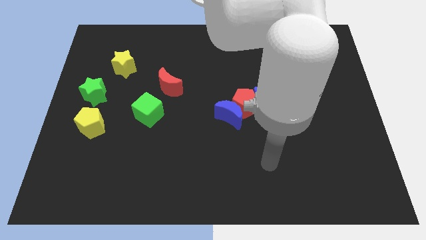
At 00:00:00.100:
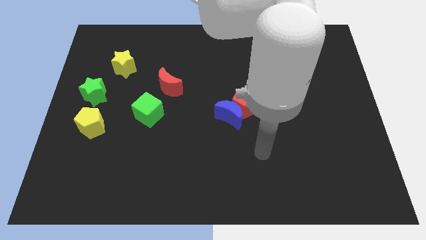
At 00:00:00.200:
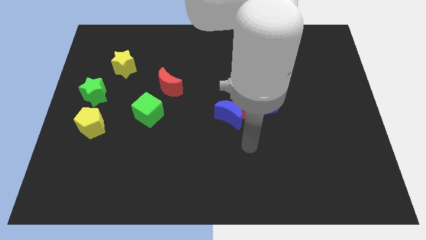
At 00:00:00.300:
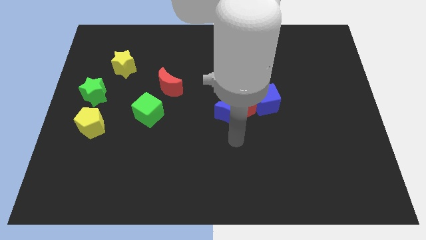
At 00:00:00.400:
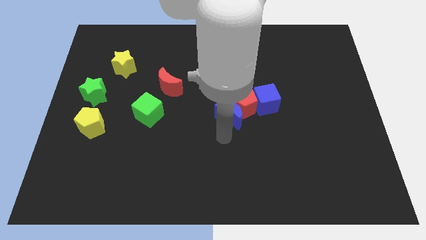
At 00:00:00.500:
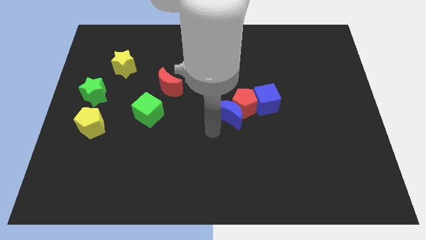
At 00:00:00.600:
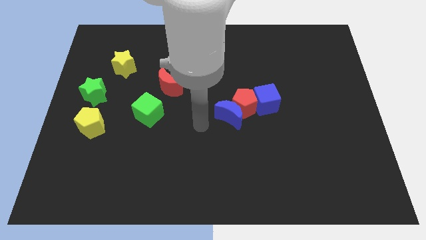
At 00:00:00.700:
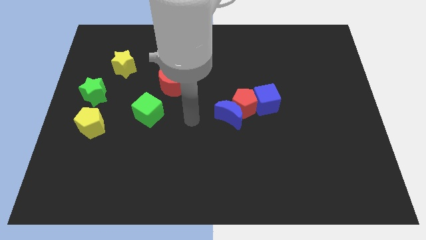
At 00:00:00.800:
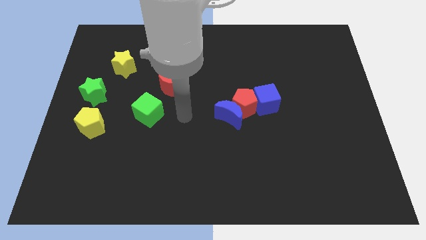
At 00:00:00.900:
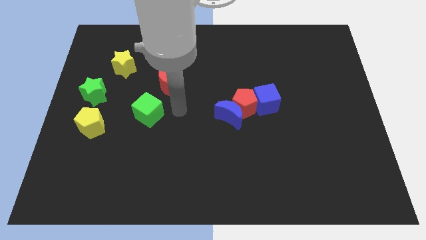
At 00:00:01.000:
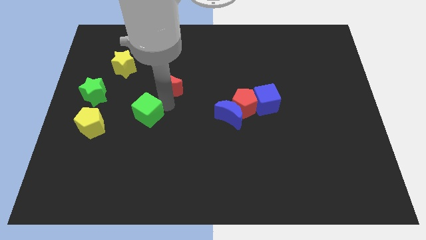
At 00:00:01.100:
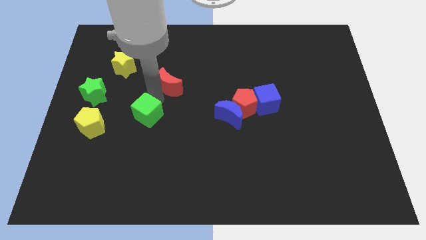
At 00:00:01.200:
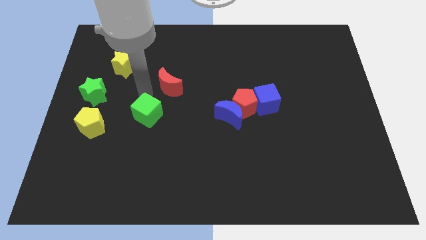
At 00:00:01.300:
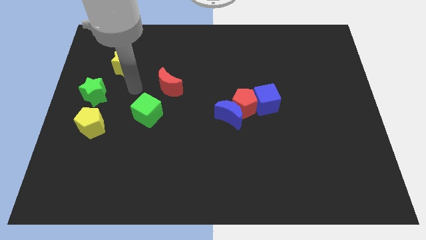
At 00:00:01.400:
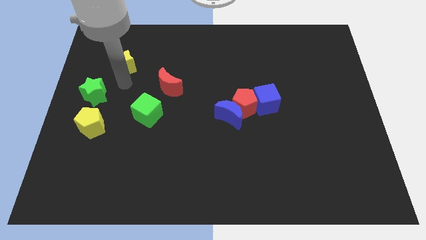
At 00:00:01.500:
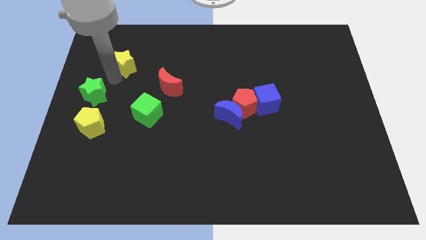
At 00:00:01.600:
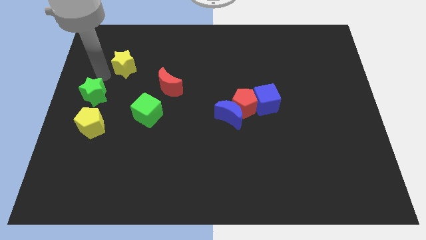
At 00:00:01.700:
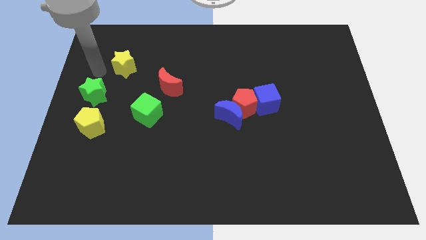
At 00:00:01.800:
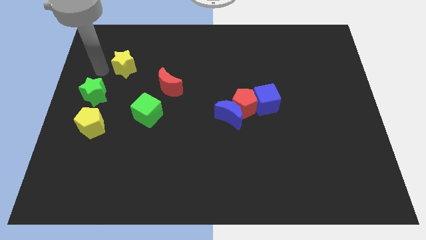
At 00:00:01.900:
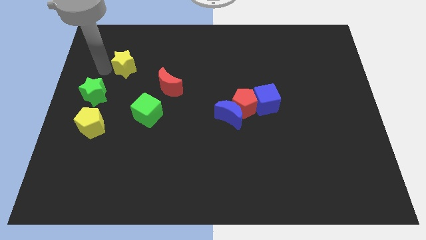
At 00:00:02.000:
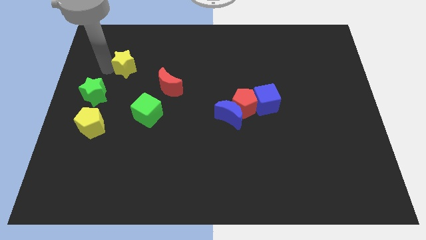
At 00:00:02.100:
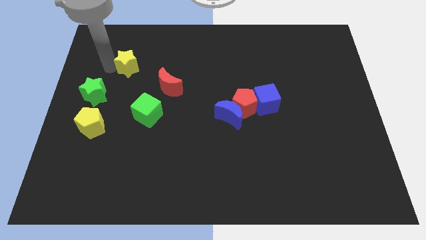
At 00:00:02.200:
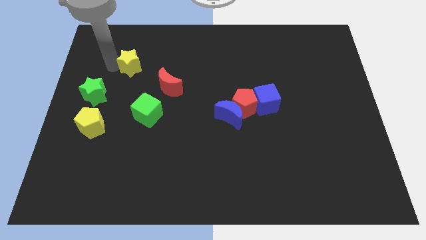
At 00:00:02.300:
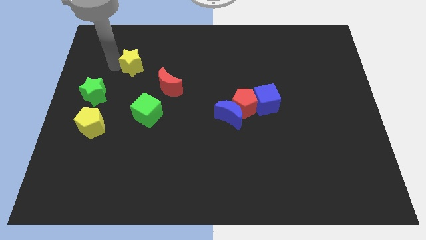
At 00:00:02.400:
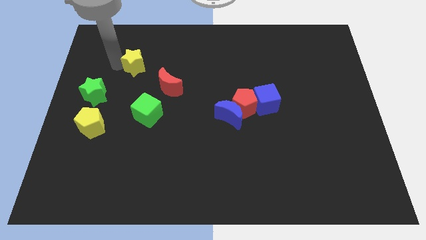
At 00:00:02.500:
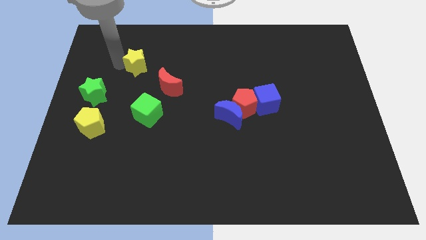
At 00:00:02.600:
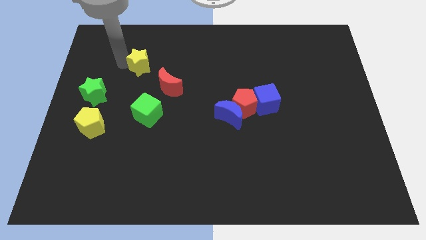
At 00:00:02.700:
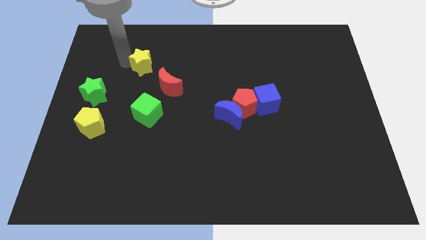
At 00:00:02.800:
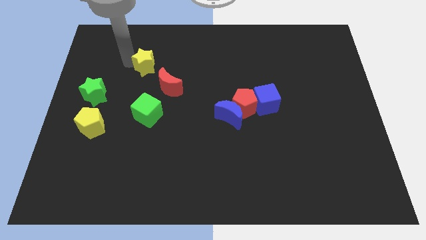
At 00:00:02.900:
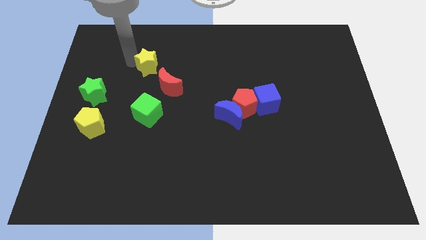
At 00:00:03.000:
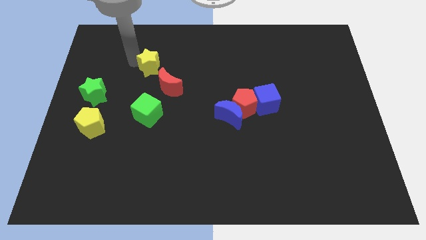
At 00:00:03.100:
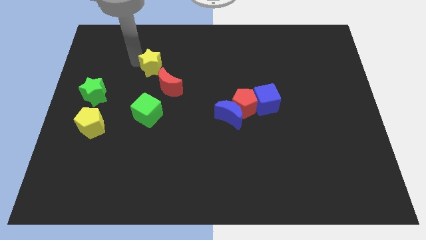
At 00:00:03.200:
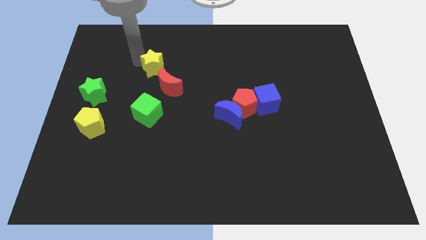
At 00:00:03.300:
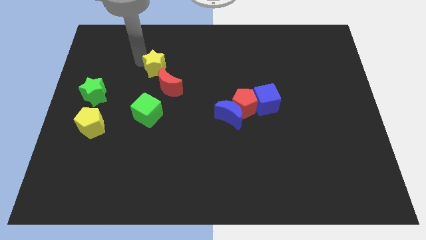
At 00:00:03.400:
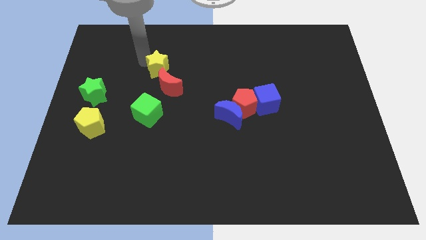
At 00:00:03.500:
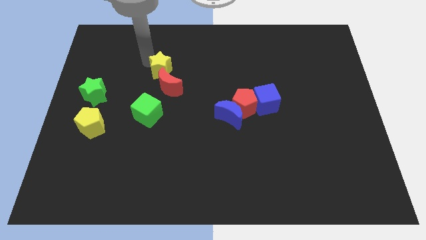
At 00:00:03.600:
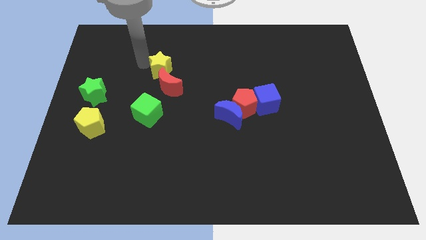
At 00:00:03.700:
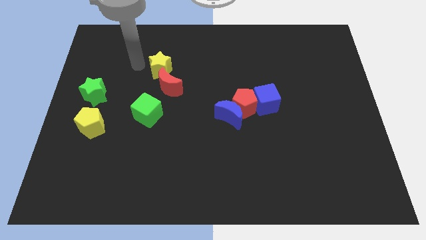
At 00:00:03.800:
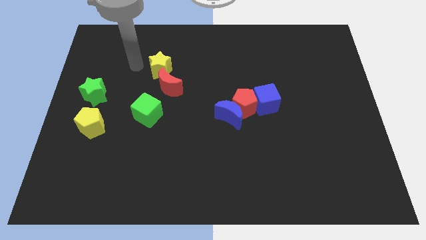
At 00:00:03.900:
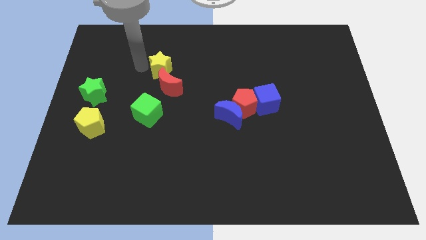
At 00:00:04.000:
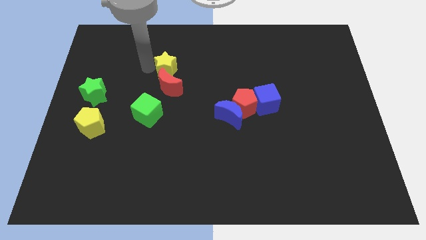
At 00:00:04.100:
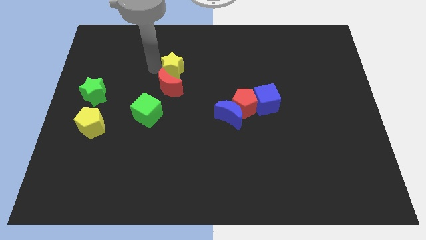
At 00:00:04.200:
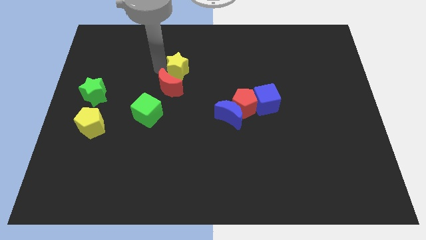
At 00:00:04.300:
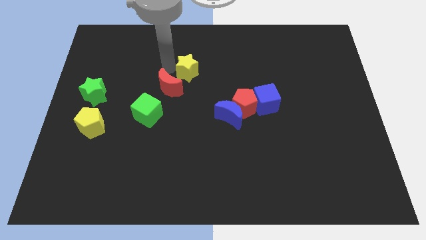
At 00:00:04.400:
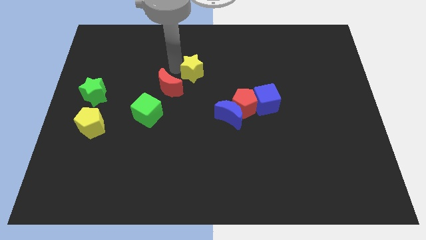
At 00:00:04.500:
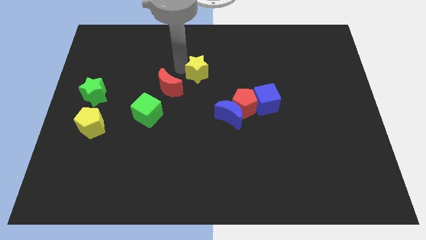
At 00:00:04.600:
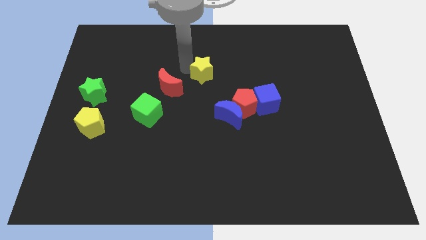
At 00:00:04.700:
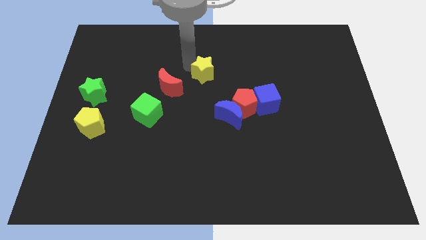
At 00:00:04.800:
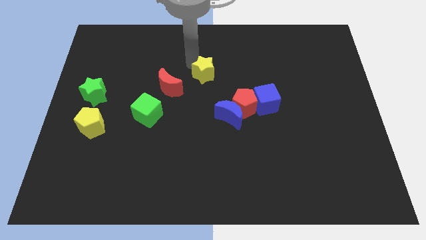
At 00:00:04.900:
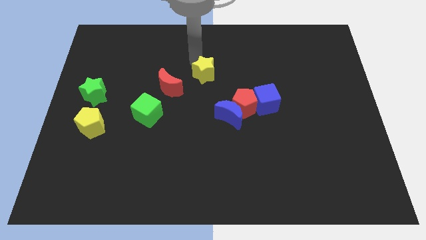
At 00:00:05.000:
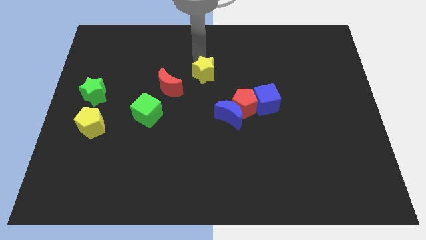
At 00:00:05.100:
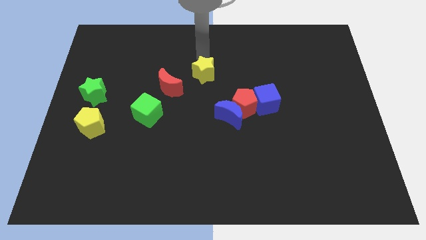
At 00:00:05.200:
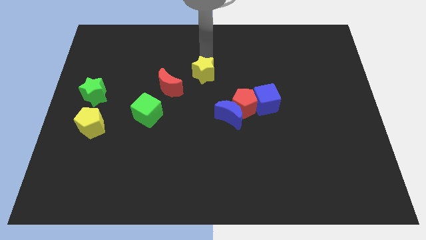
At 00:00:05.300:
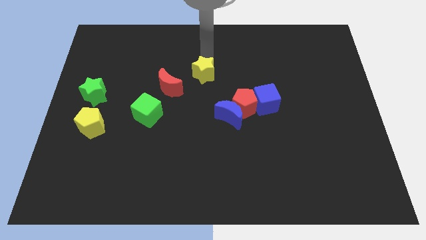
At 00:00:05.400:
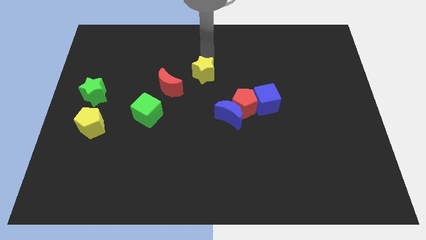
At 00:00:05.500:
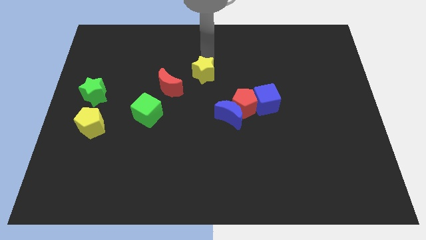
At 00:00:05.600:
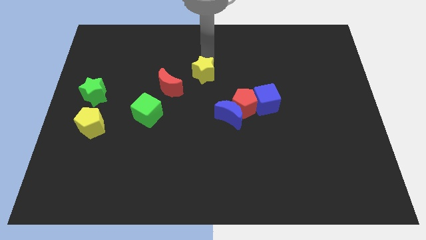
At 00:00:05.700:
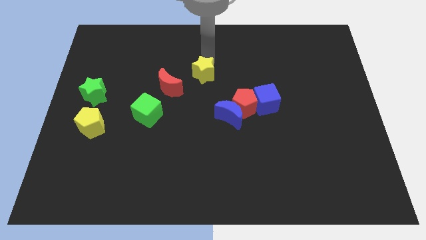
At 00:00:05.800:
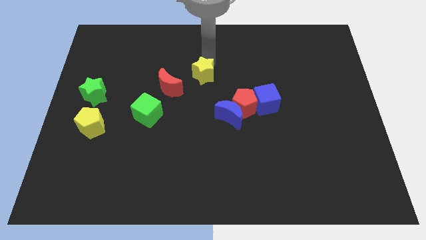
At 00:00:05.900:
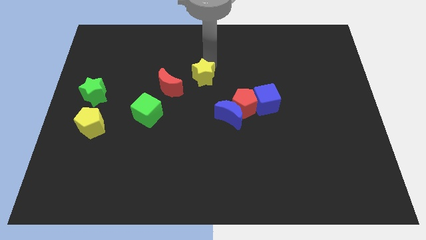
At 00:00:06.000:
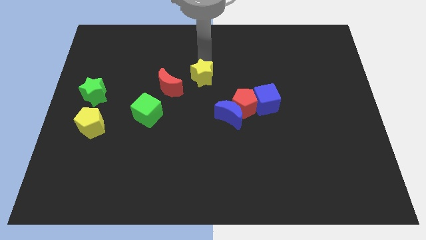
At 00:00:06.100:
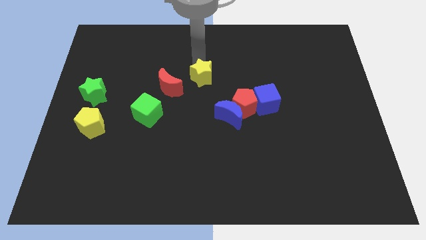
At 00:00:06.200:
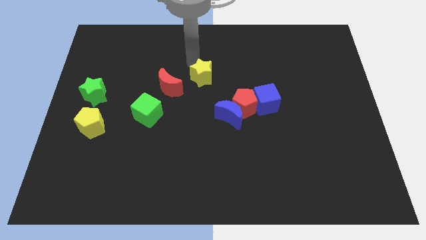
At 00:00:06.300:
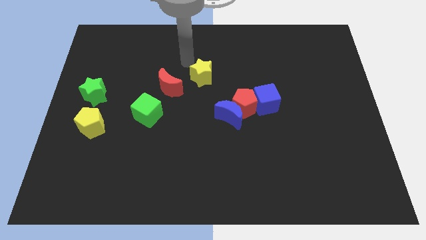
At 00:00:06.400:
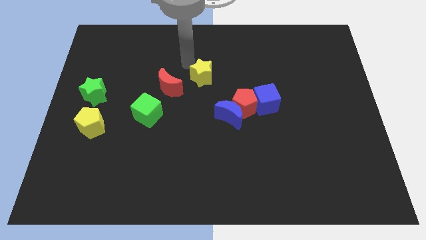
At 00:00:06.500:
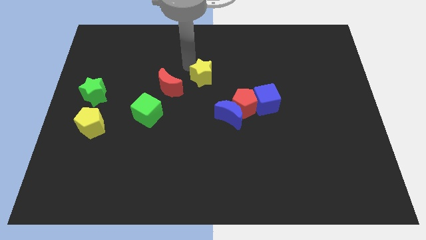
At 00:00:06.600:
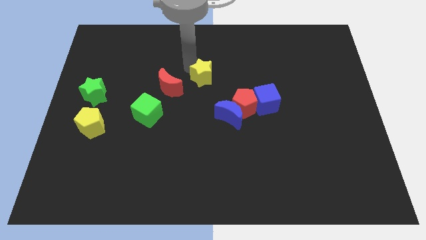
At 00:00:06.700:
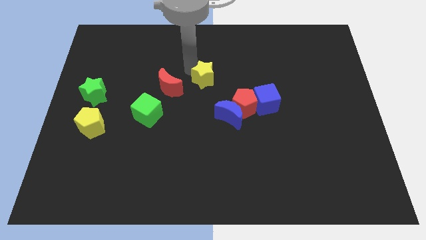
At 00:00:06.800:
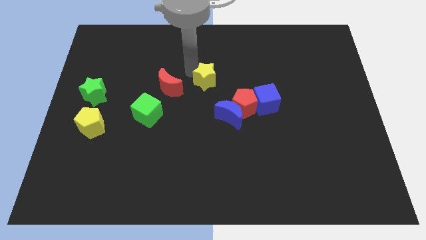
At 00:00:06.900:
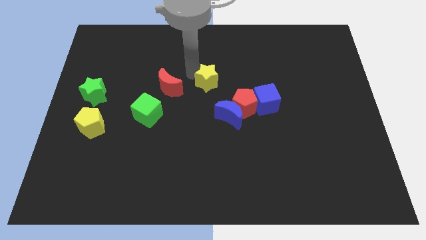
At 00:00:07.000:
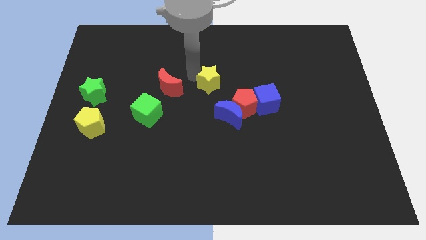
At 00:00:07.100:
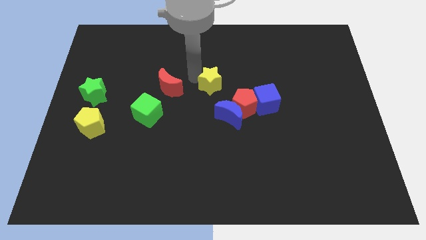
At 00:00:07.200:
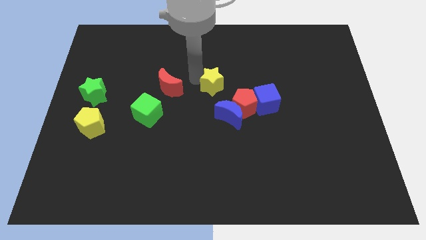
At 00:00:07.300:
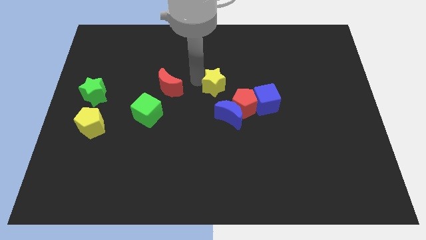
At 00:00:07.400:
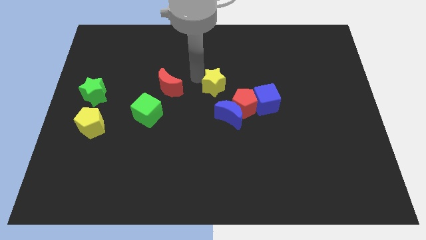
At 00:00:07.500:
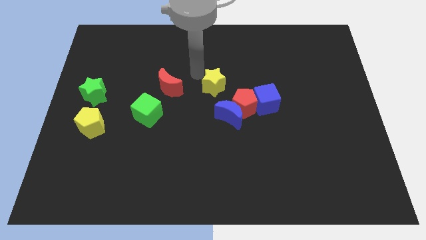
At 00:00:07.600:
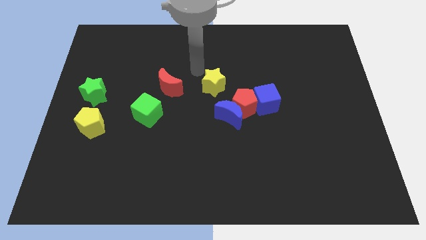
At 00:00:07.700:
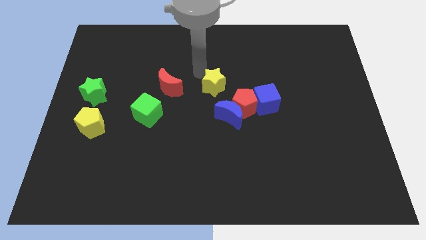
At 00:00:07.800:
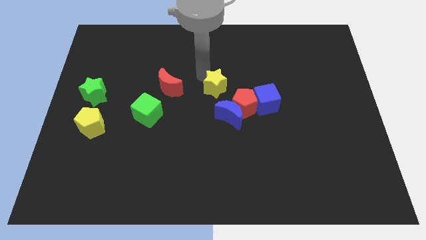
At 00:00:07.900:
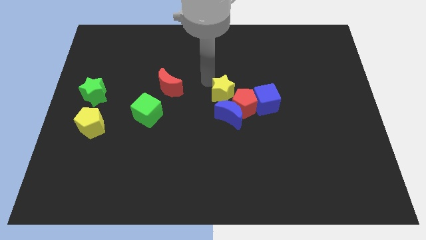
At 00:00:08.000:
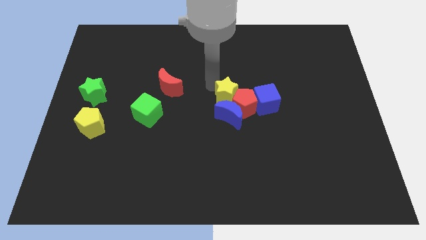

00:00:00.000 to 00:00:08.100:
slide the yellow star to the red pentagon
